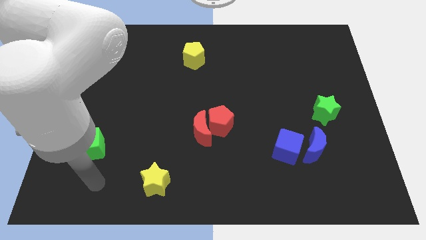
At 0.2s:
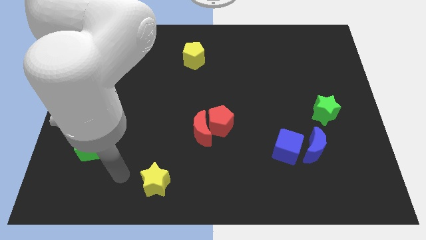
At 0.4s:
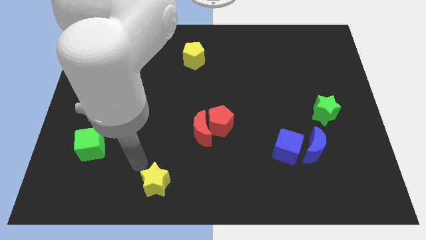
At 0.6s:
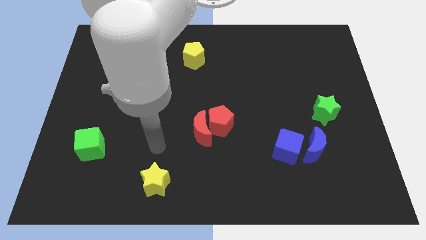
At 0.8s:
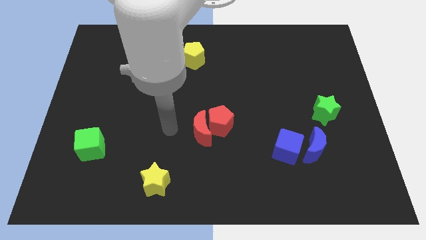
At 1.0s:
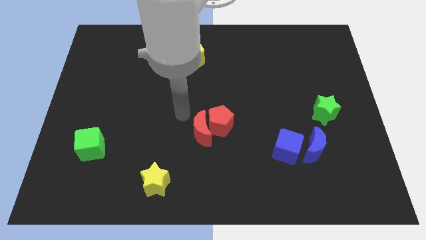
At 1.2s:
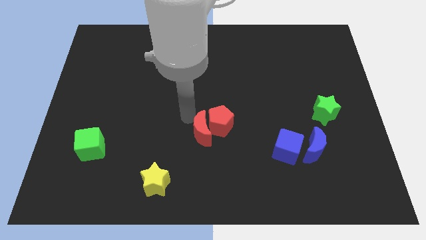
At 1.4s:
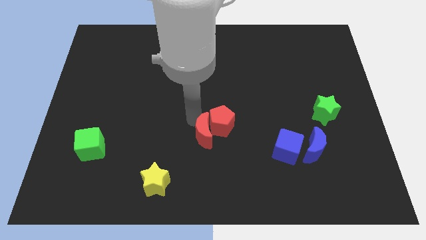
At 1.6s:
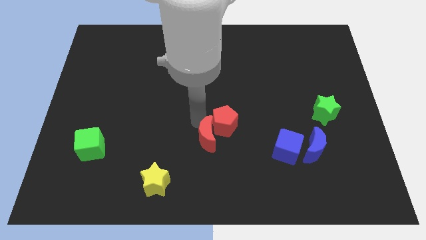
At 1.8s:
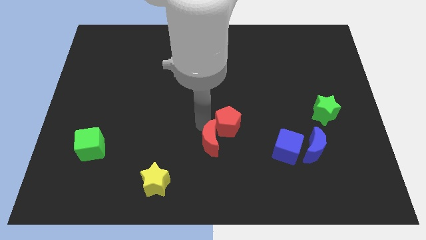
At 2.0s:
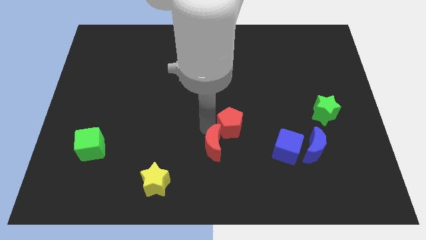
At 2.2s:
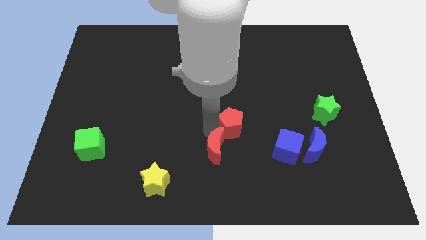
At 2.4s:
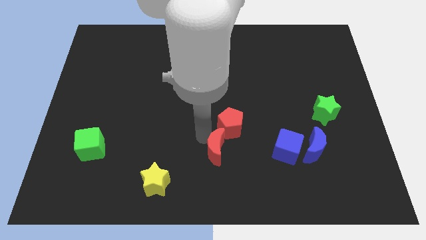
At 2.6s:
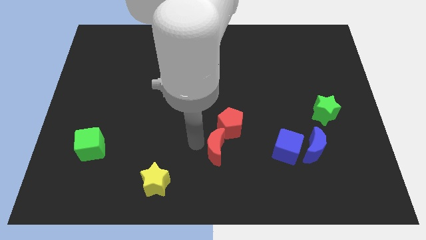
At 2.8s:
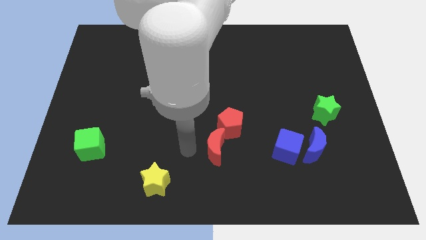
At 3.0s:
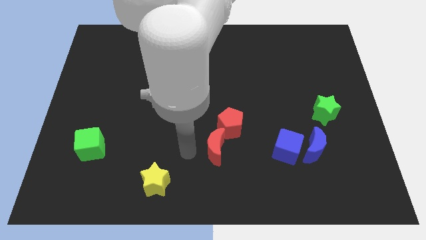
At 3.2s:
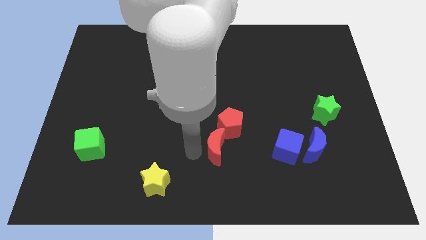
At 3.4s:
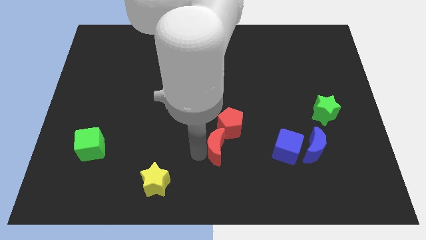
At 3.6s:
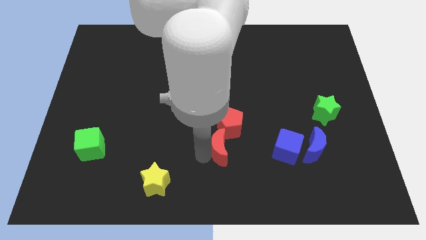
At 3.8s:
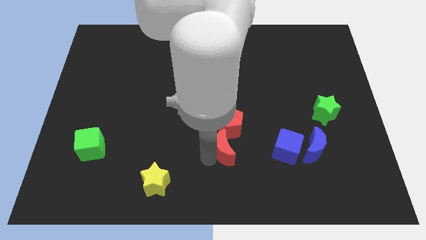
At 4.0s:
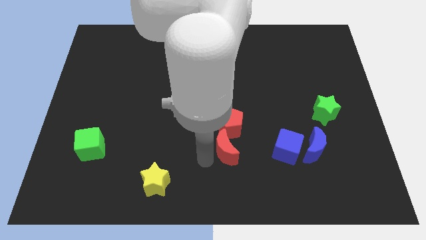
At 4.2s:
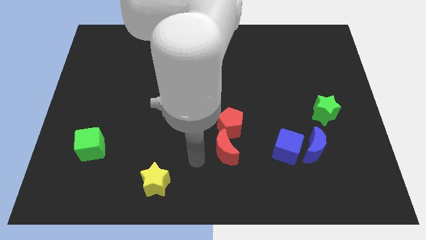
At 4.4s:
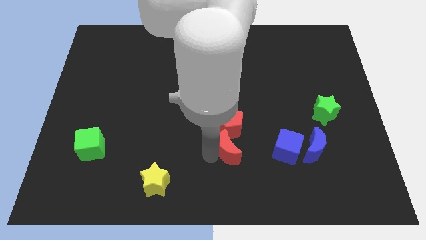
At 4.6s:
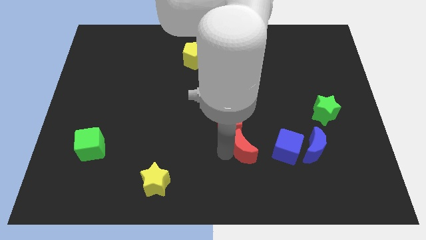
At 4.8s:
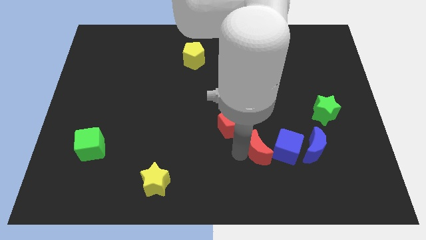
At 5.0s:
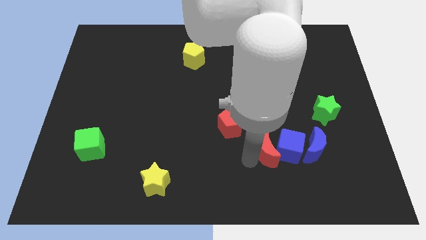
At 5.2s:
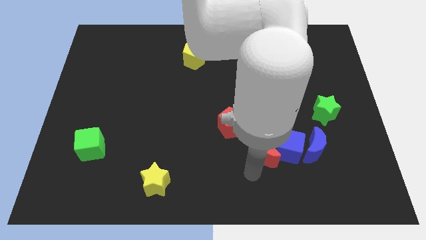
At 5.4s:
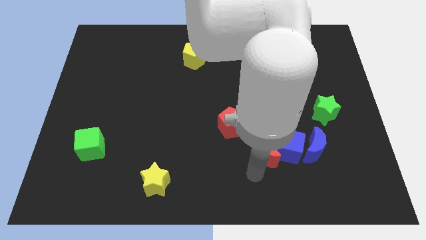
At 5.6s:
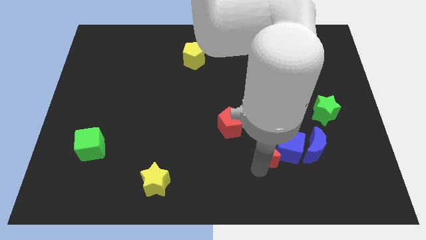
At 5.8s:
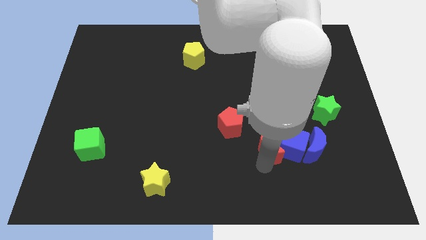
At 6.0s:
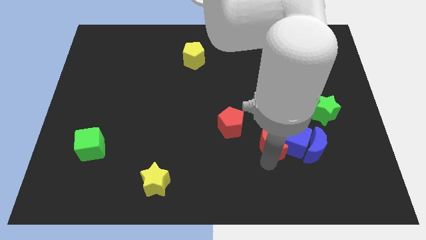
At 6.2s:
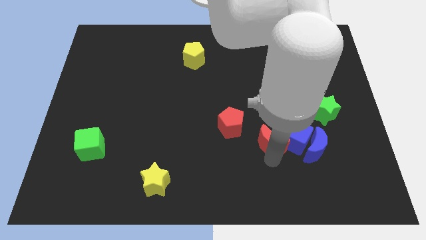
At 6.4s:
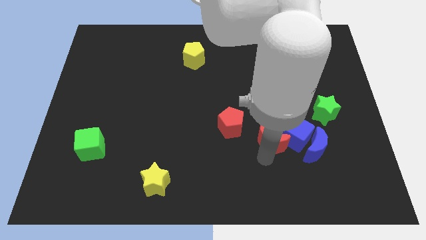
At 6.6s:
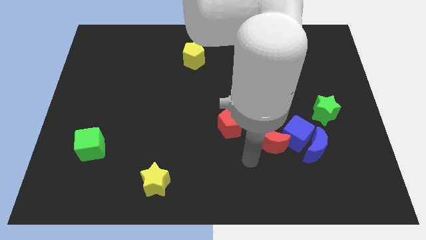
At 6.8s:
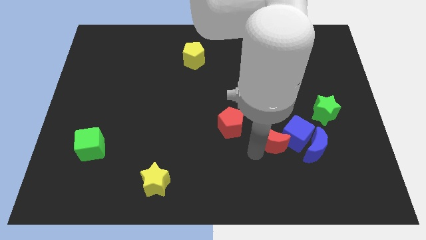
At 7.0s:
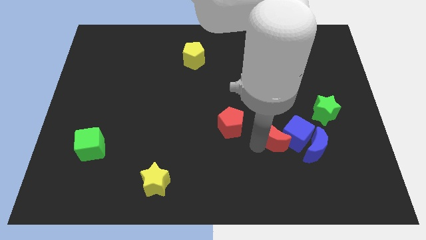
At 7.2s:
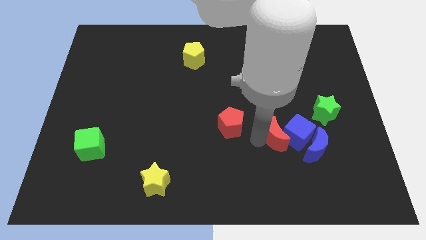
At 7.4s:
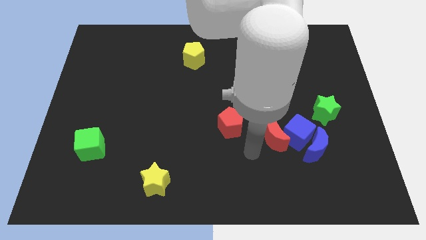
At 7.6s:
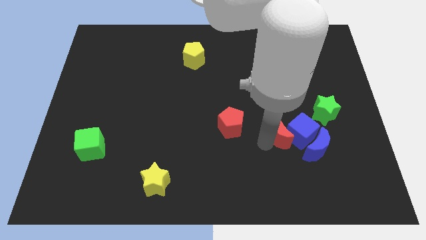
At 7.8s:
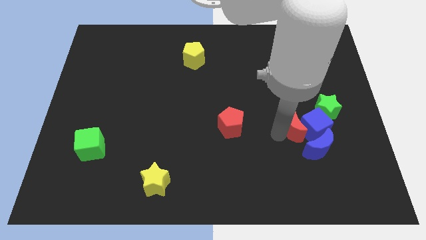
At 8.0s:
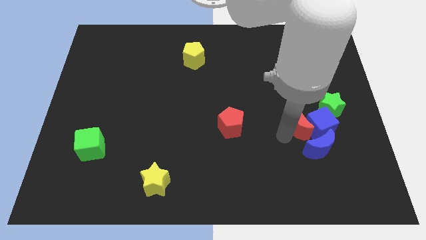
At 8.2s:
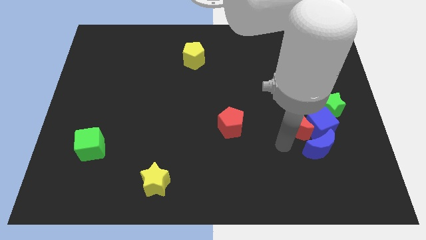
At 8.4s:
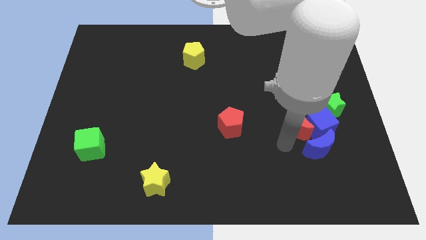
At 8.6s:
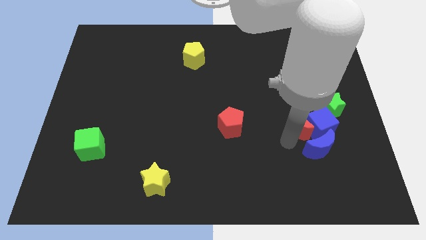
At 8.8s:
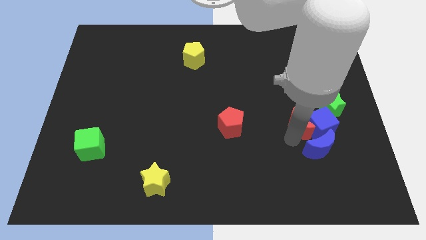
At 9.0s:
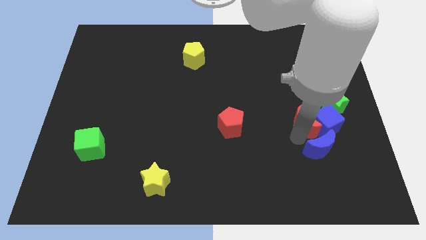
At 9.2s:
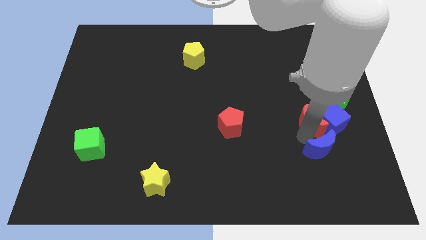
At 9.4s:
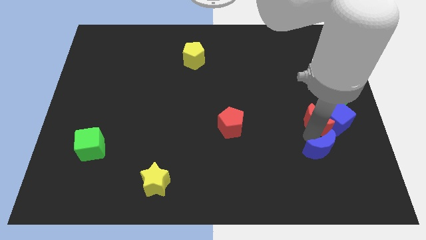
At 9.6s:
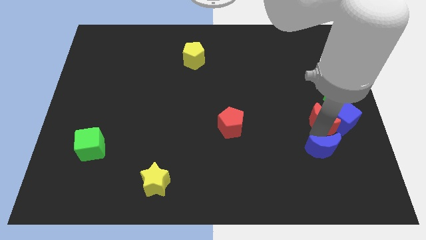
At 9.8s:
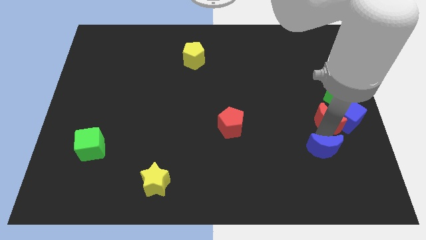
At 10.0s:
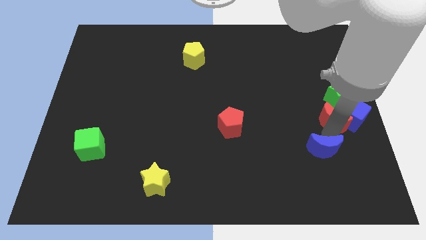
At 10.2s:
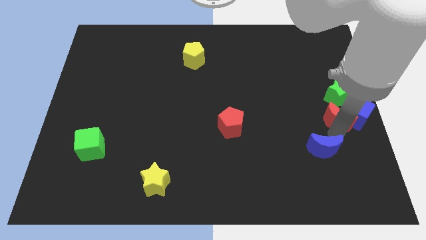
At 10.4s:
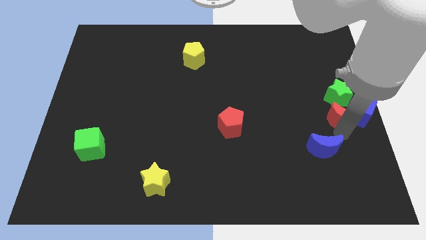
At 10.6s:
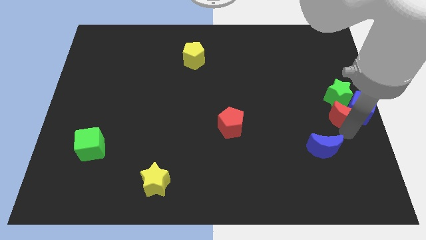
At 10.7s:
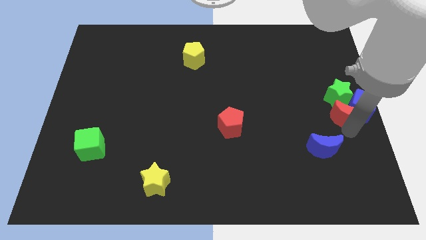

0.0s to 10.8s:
put the red moon towards the green star

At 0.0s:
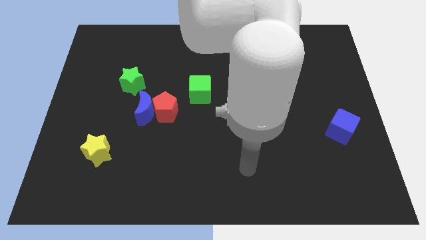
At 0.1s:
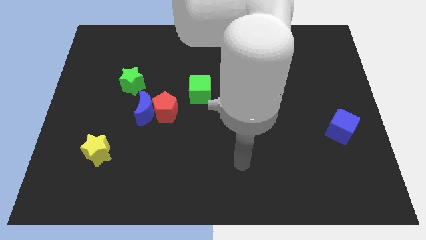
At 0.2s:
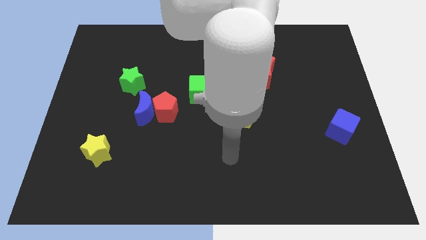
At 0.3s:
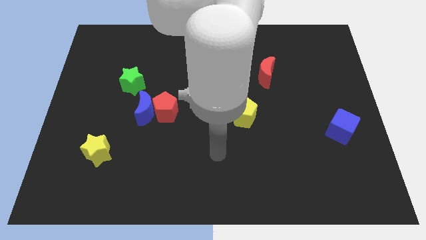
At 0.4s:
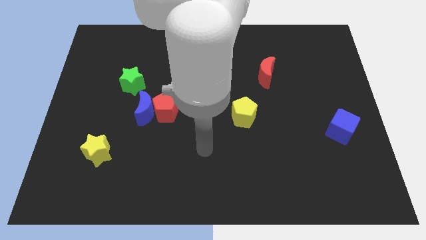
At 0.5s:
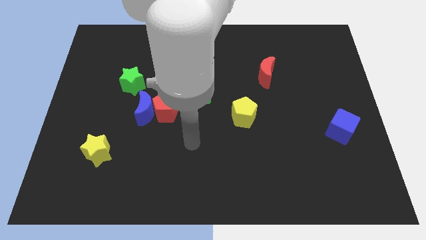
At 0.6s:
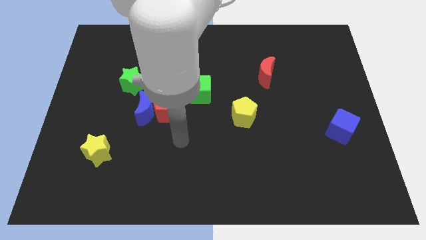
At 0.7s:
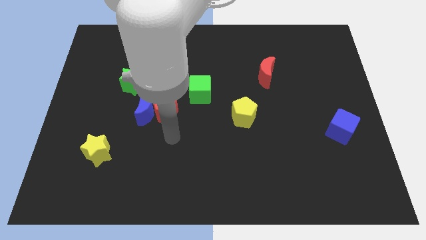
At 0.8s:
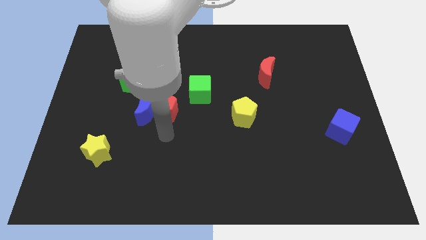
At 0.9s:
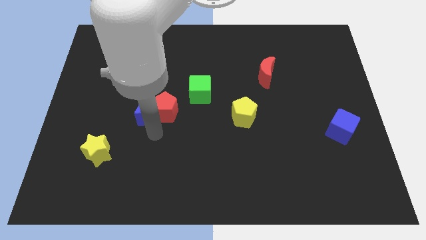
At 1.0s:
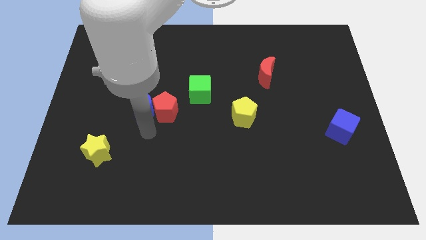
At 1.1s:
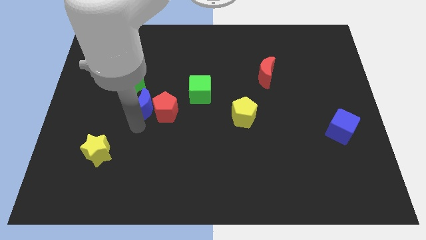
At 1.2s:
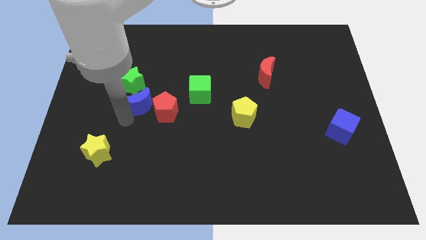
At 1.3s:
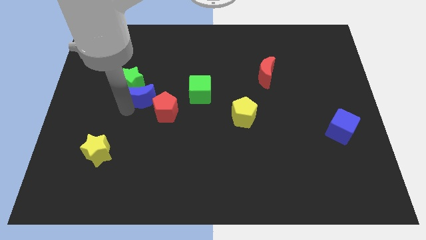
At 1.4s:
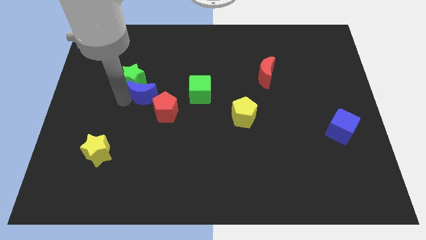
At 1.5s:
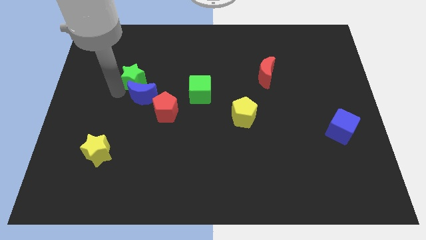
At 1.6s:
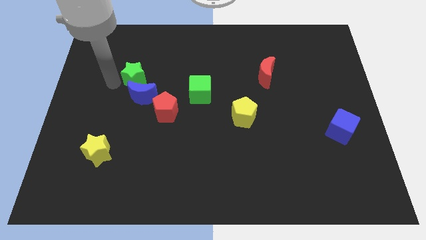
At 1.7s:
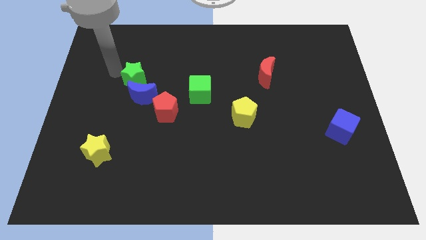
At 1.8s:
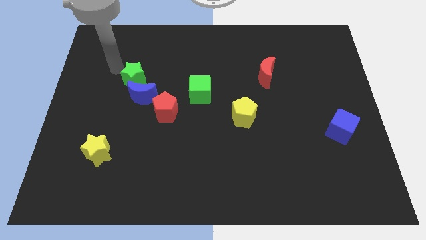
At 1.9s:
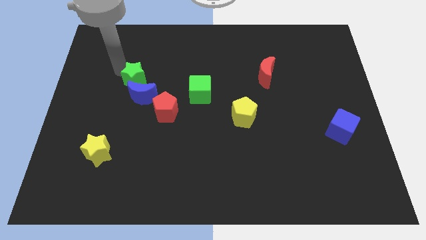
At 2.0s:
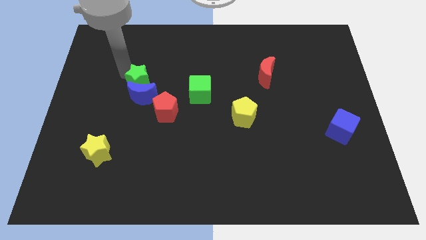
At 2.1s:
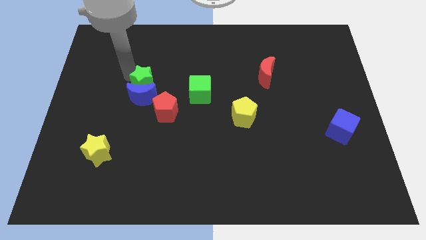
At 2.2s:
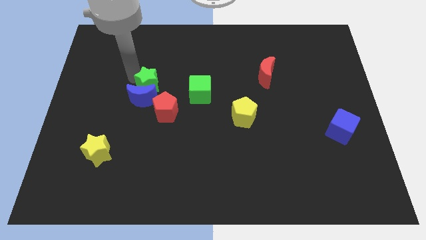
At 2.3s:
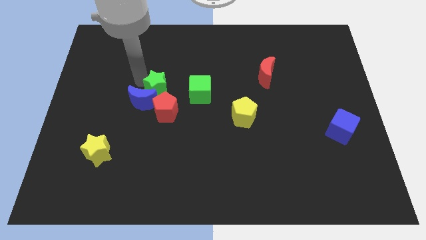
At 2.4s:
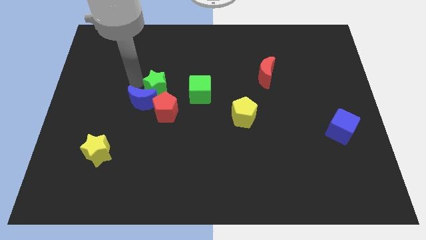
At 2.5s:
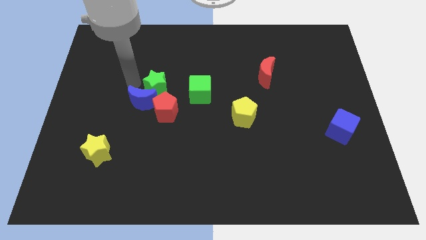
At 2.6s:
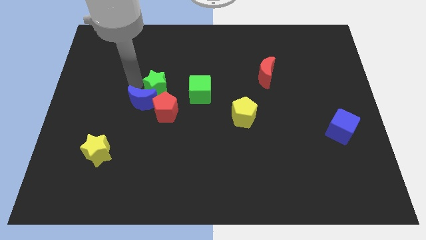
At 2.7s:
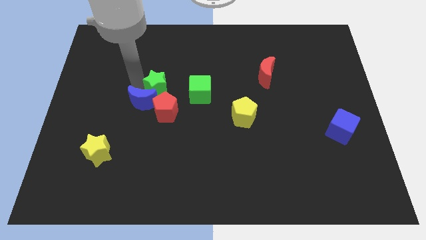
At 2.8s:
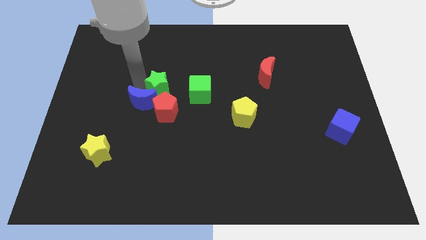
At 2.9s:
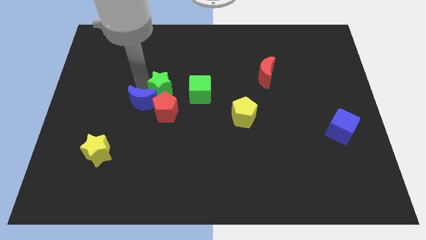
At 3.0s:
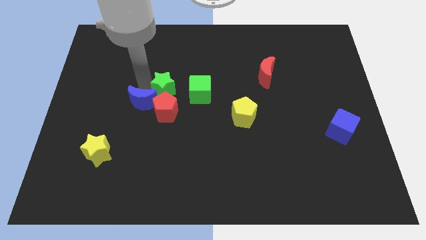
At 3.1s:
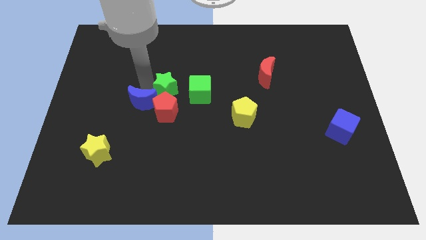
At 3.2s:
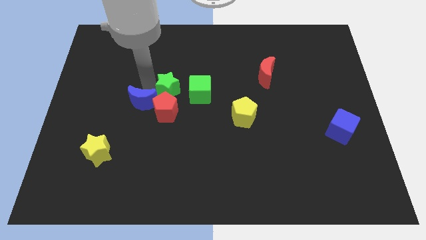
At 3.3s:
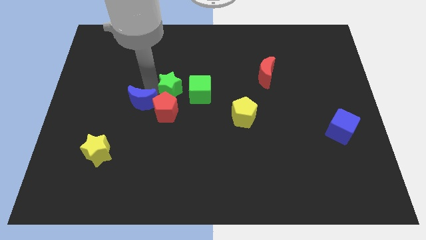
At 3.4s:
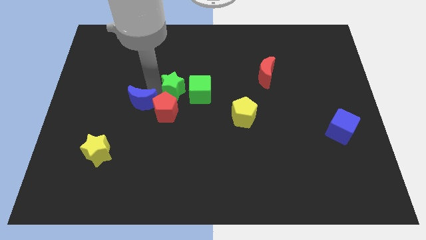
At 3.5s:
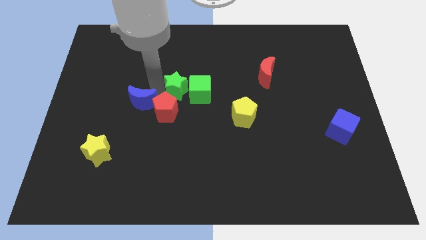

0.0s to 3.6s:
slide the green star towards the green cube
